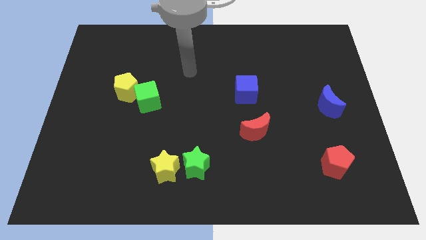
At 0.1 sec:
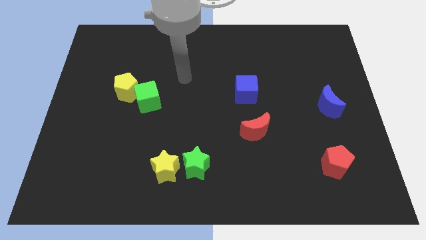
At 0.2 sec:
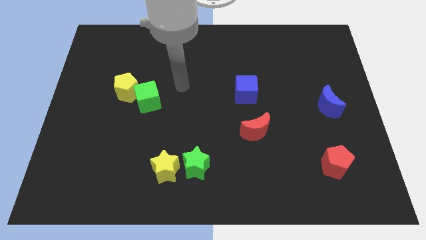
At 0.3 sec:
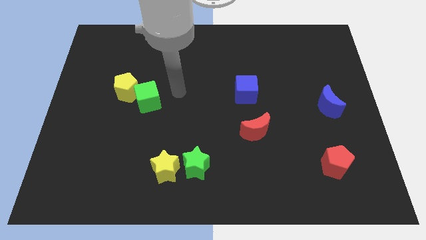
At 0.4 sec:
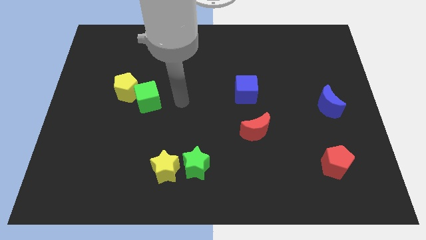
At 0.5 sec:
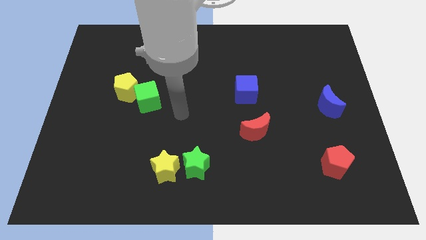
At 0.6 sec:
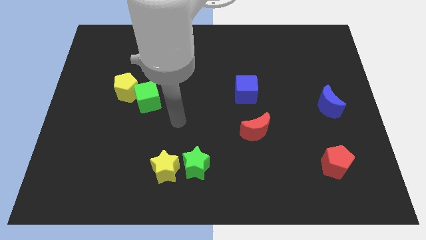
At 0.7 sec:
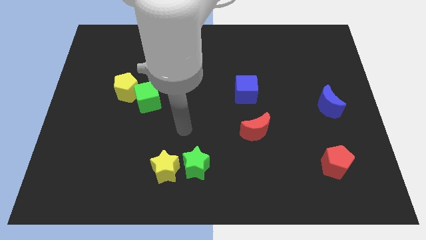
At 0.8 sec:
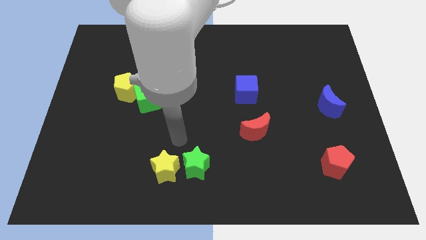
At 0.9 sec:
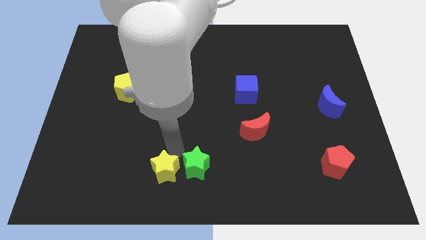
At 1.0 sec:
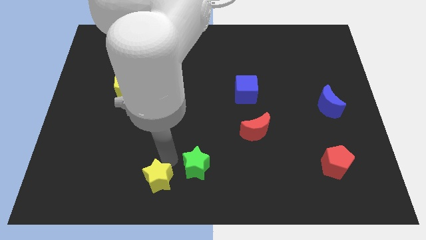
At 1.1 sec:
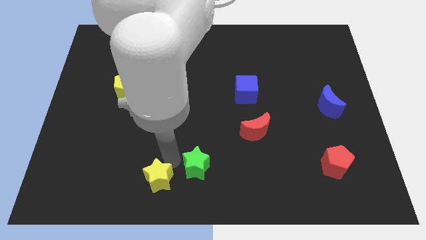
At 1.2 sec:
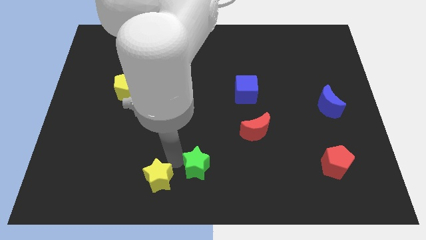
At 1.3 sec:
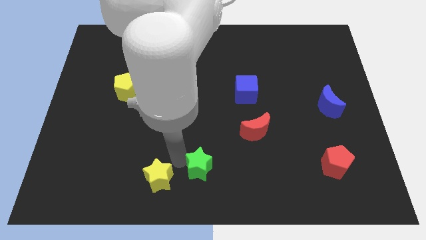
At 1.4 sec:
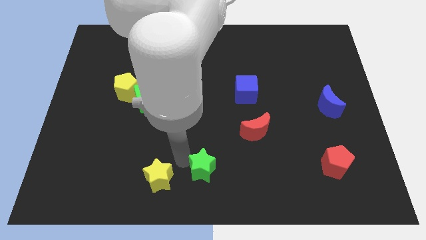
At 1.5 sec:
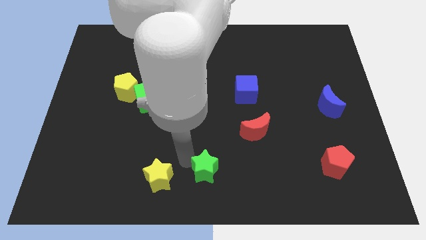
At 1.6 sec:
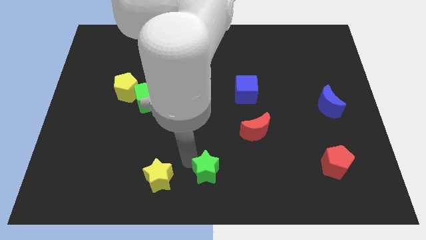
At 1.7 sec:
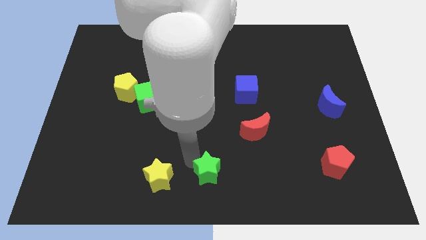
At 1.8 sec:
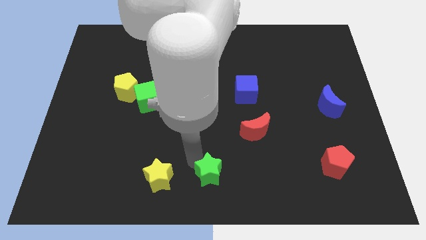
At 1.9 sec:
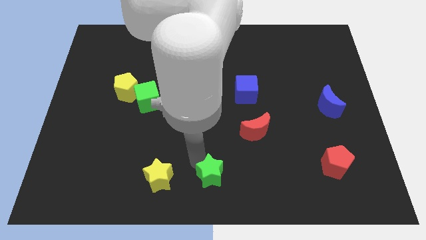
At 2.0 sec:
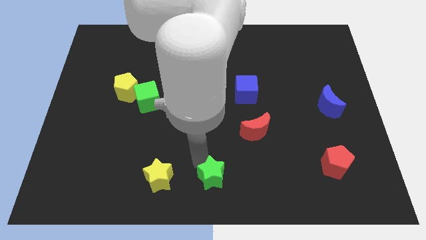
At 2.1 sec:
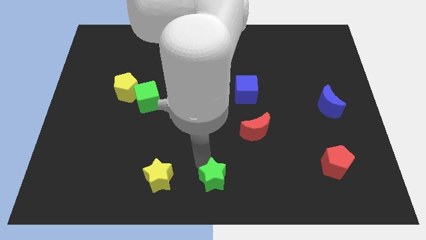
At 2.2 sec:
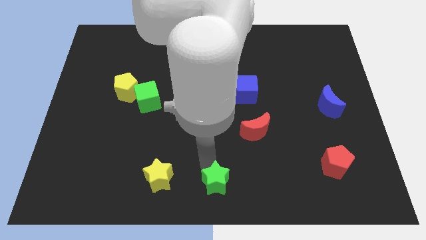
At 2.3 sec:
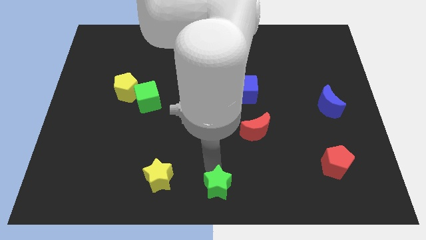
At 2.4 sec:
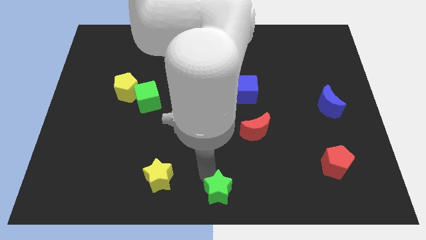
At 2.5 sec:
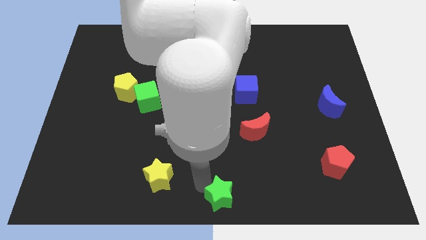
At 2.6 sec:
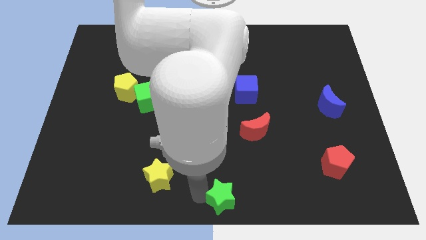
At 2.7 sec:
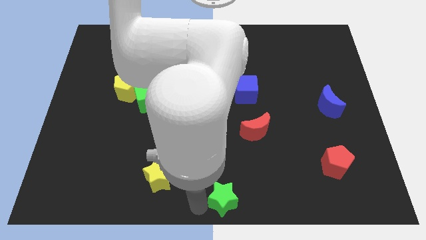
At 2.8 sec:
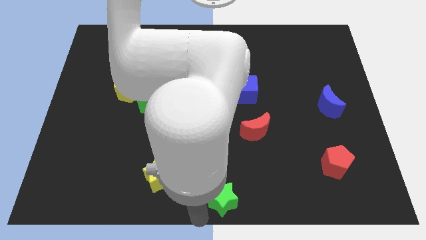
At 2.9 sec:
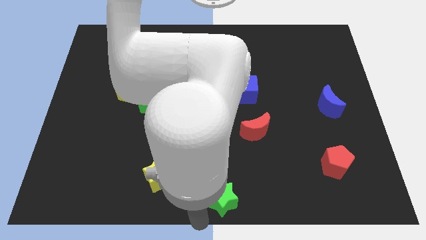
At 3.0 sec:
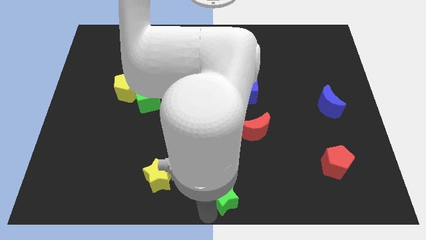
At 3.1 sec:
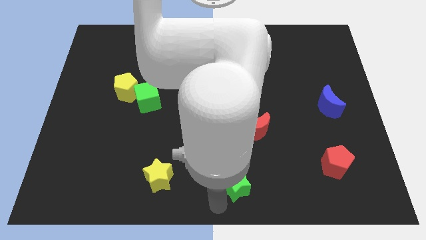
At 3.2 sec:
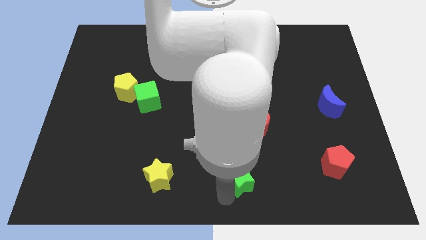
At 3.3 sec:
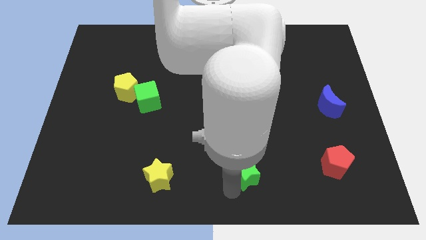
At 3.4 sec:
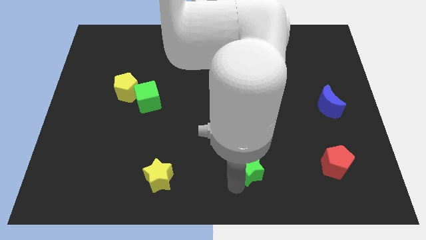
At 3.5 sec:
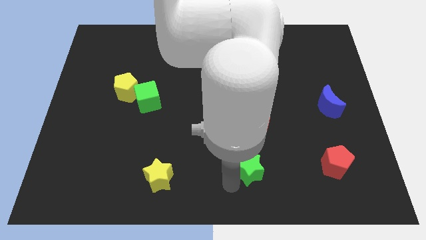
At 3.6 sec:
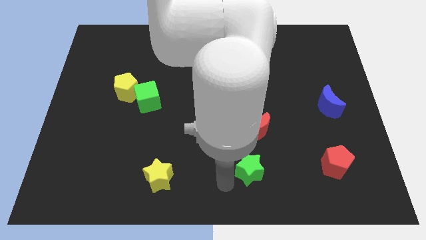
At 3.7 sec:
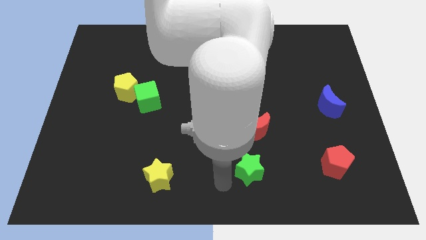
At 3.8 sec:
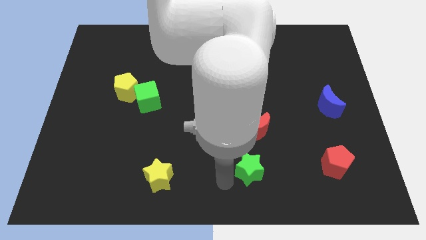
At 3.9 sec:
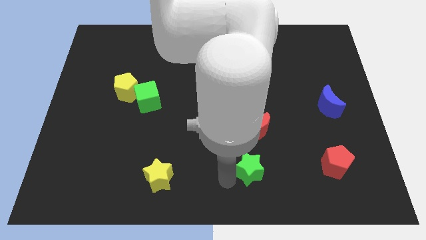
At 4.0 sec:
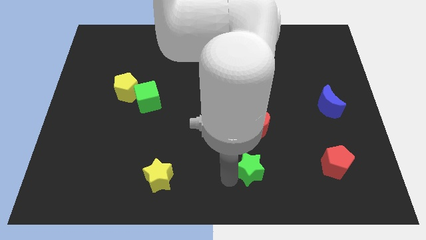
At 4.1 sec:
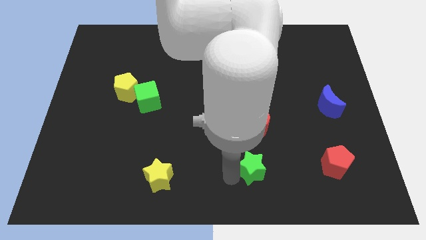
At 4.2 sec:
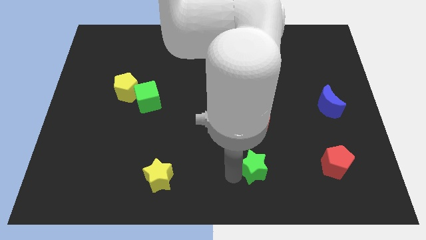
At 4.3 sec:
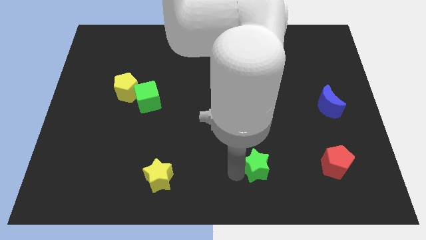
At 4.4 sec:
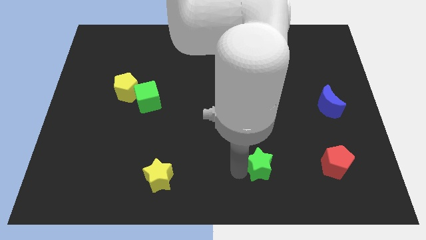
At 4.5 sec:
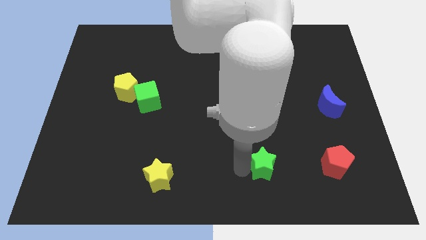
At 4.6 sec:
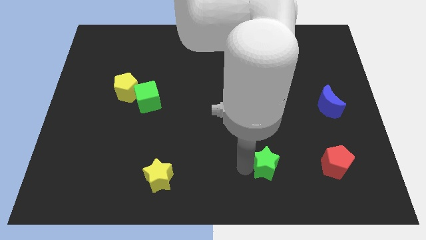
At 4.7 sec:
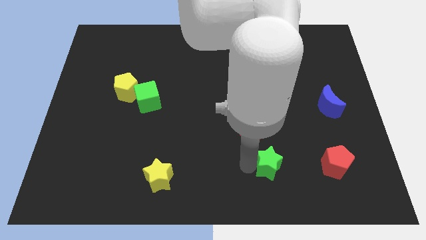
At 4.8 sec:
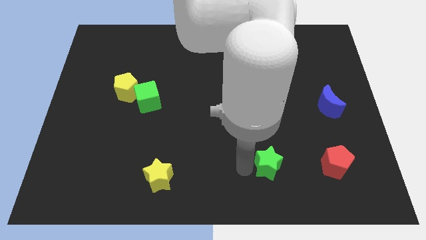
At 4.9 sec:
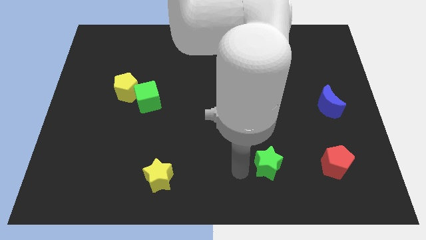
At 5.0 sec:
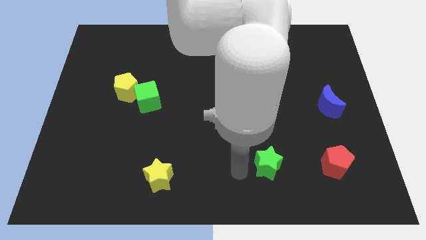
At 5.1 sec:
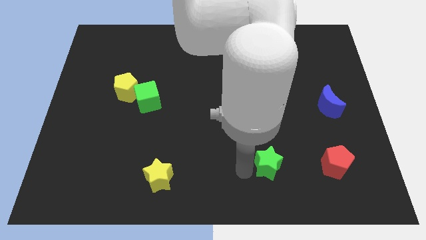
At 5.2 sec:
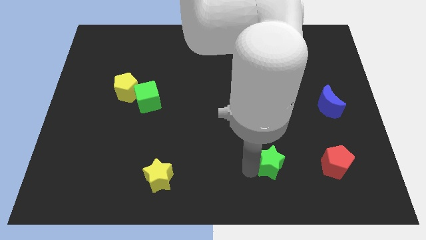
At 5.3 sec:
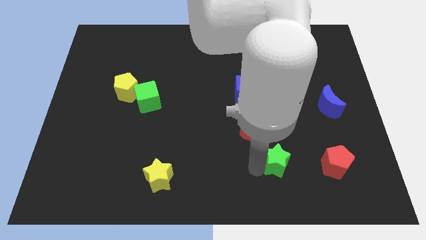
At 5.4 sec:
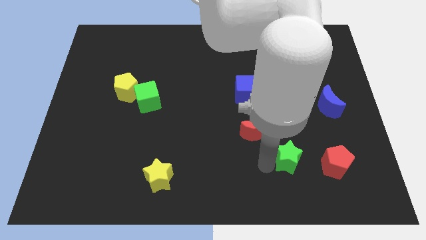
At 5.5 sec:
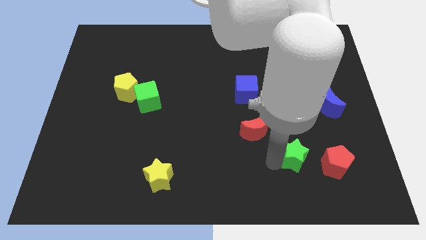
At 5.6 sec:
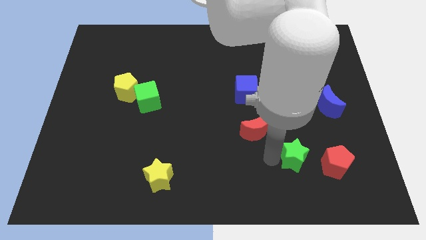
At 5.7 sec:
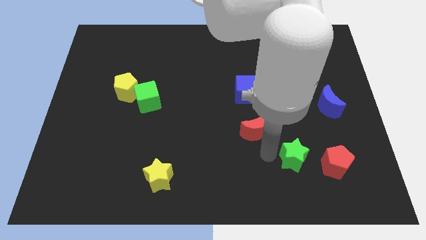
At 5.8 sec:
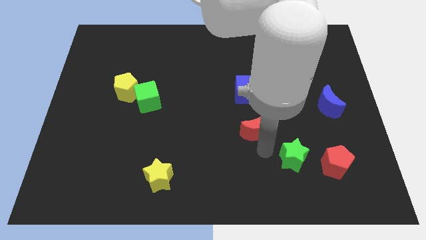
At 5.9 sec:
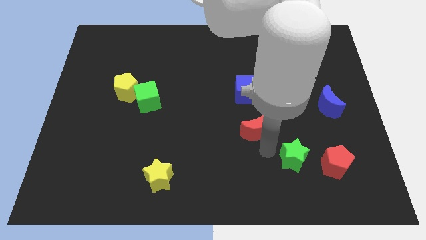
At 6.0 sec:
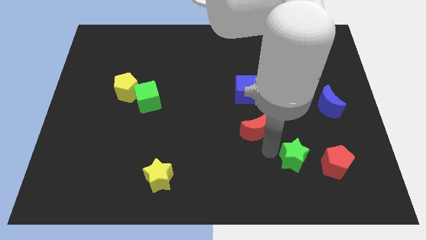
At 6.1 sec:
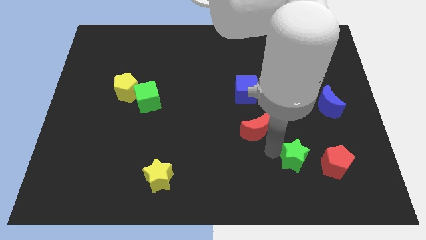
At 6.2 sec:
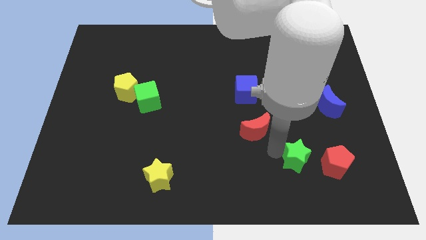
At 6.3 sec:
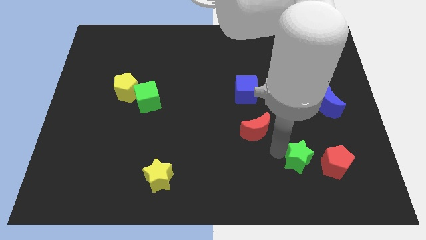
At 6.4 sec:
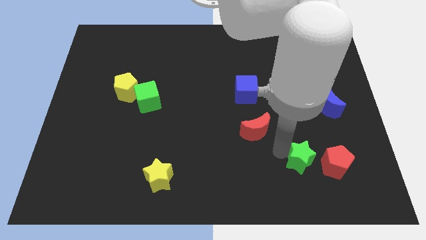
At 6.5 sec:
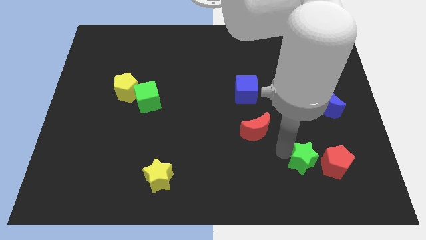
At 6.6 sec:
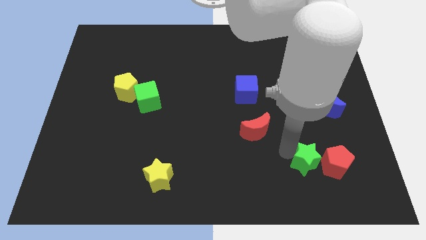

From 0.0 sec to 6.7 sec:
move the green star towards the red pentagon

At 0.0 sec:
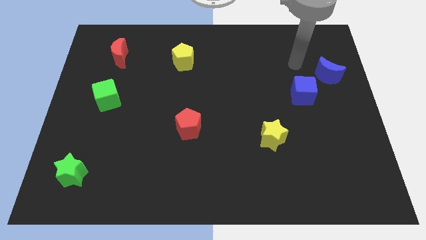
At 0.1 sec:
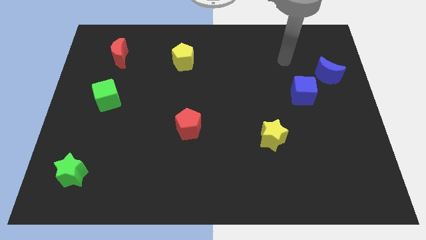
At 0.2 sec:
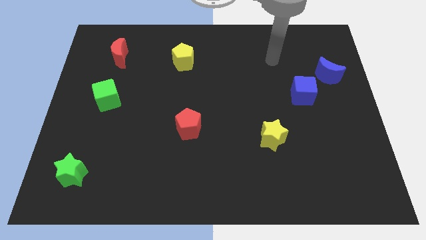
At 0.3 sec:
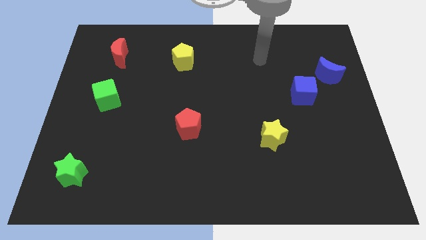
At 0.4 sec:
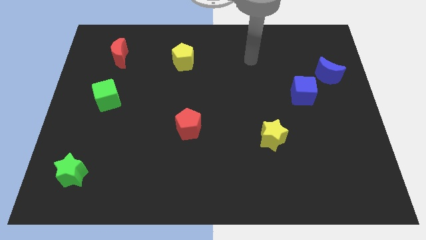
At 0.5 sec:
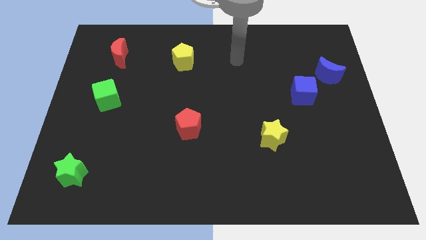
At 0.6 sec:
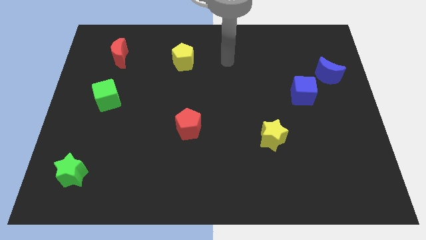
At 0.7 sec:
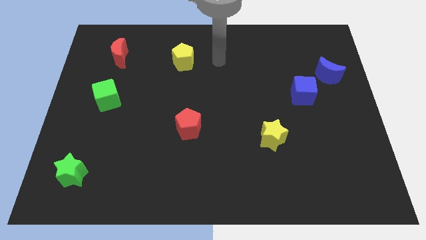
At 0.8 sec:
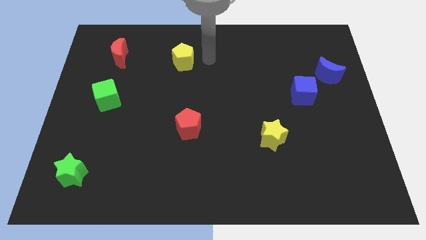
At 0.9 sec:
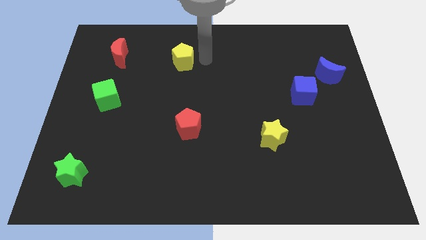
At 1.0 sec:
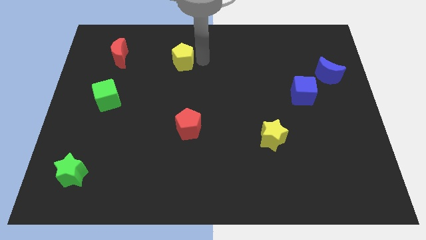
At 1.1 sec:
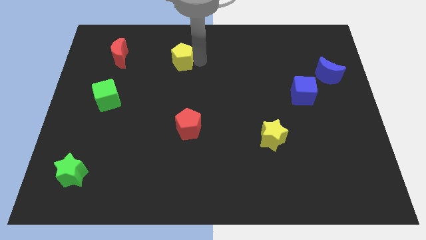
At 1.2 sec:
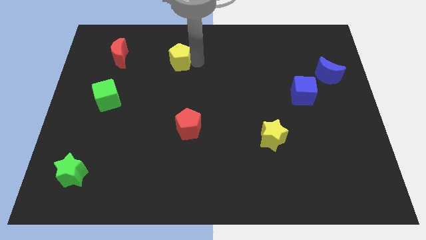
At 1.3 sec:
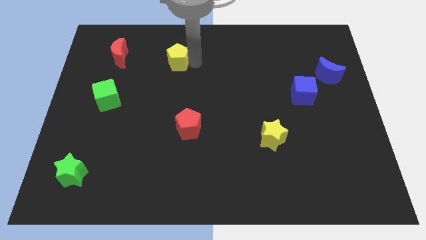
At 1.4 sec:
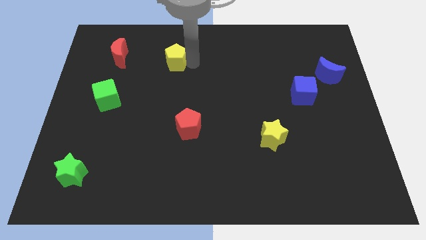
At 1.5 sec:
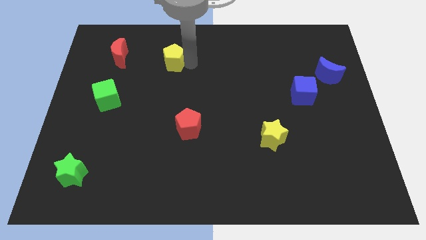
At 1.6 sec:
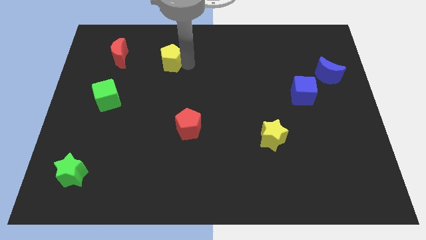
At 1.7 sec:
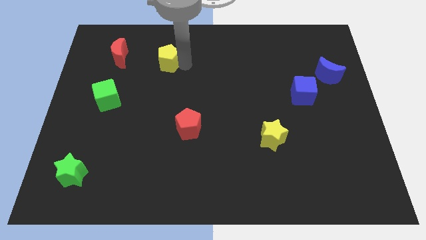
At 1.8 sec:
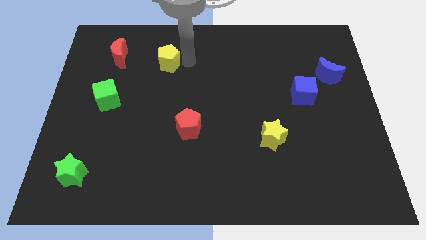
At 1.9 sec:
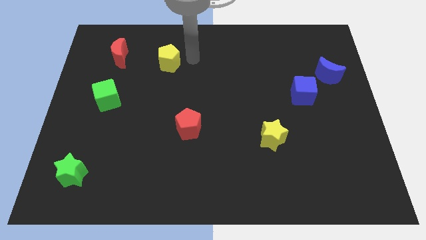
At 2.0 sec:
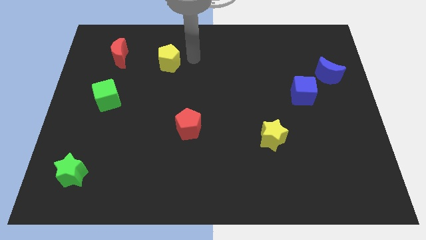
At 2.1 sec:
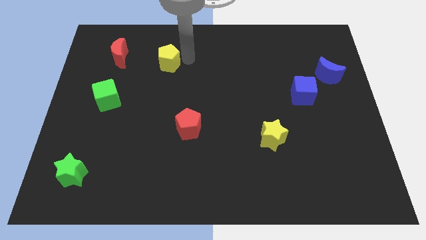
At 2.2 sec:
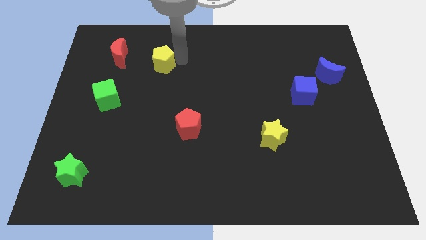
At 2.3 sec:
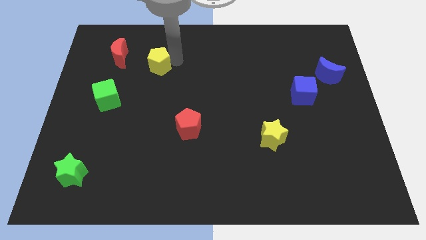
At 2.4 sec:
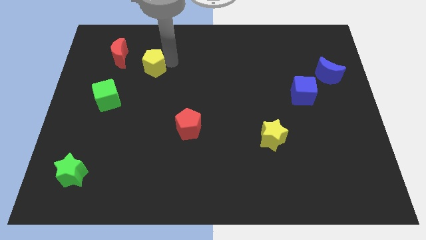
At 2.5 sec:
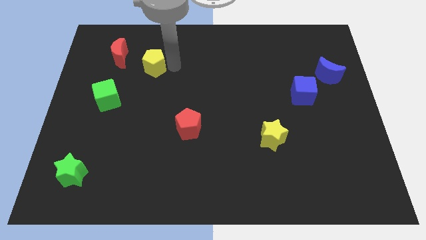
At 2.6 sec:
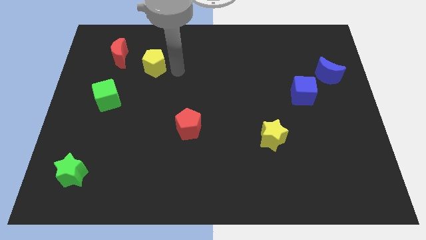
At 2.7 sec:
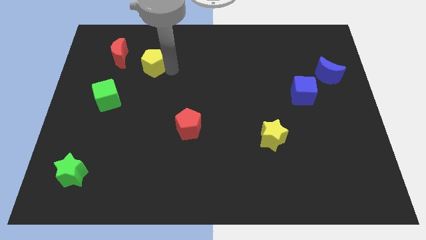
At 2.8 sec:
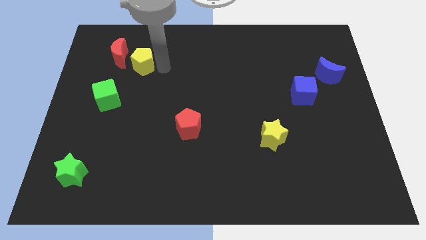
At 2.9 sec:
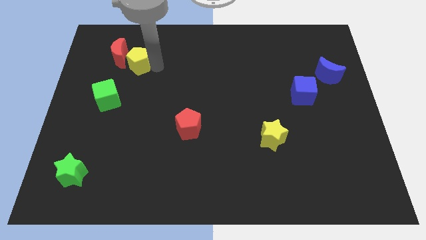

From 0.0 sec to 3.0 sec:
put the yellow pentagon close to the red moon
